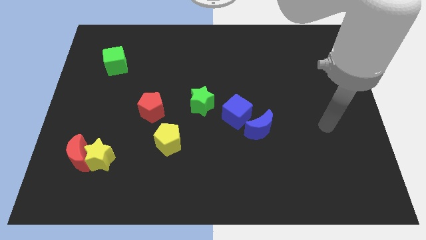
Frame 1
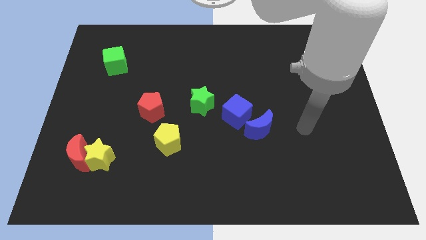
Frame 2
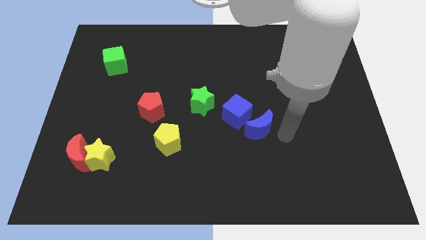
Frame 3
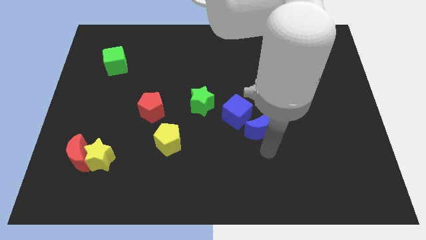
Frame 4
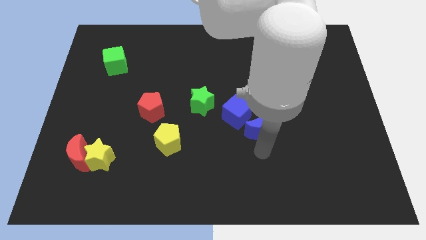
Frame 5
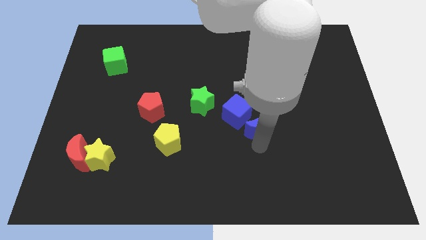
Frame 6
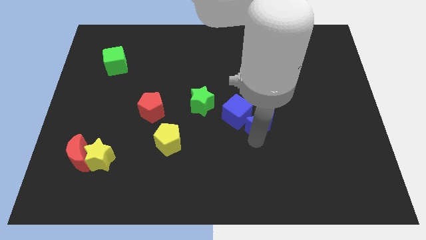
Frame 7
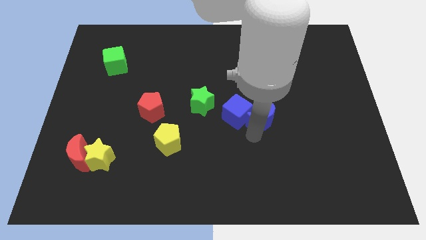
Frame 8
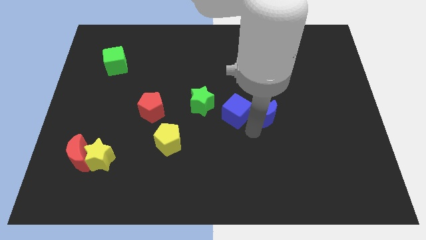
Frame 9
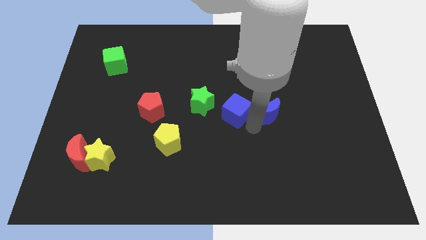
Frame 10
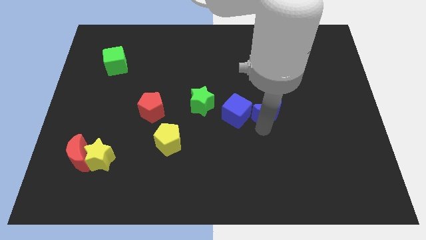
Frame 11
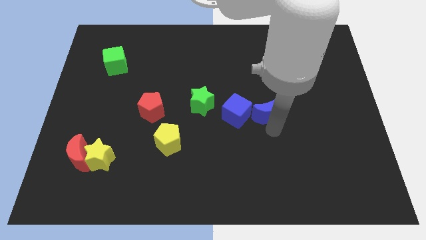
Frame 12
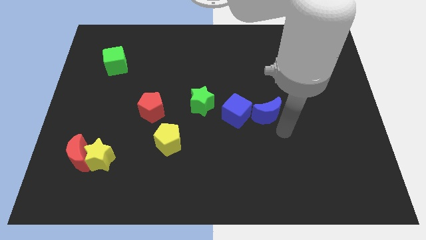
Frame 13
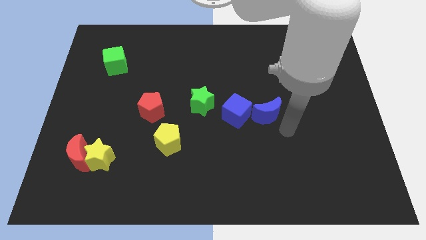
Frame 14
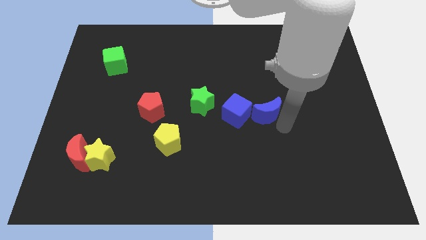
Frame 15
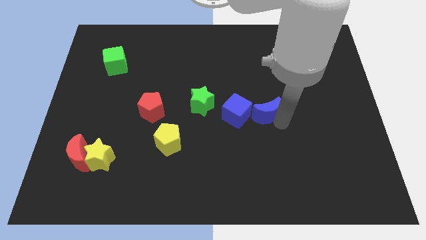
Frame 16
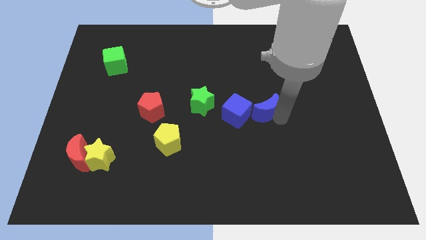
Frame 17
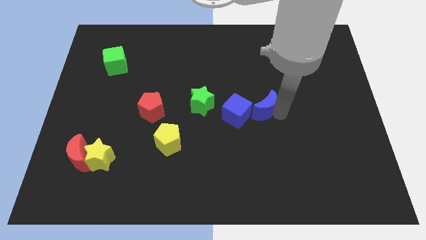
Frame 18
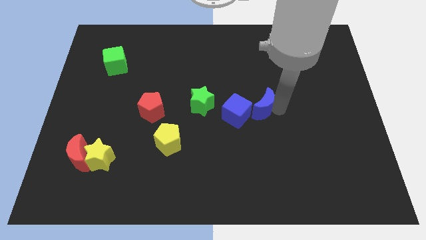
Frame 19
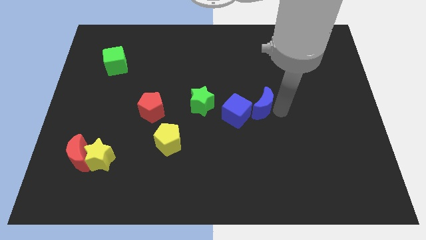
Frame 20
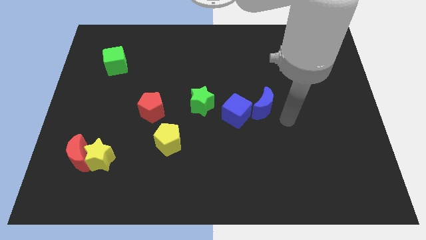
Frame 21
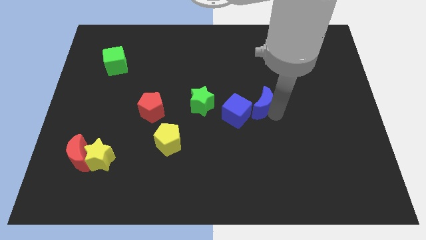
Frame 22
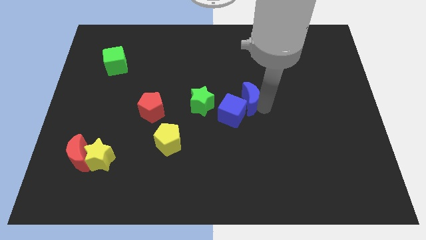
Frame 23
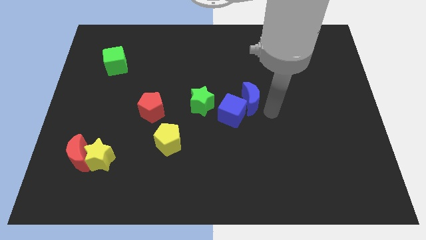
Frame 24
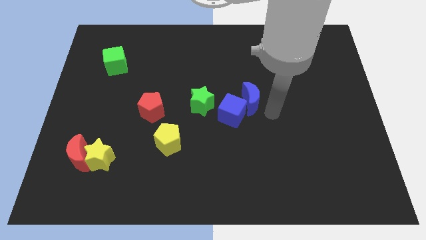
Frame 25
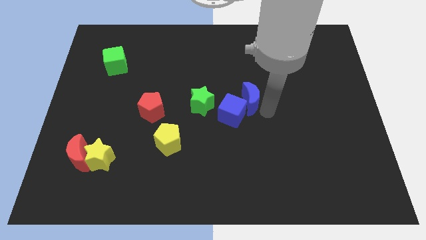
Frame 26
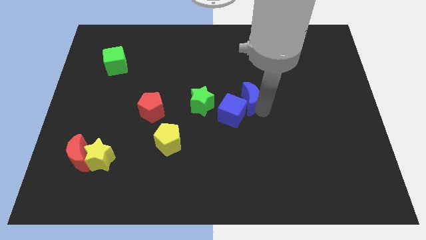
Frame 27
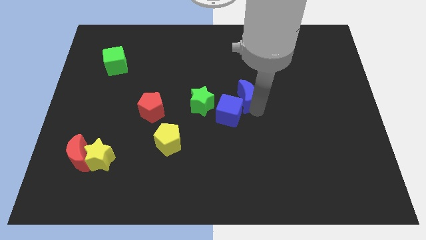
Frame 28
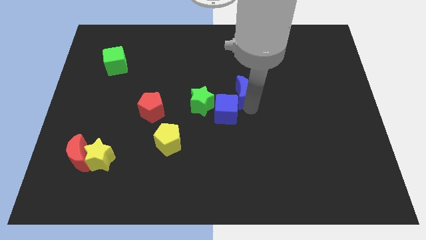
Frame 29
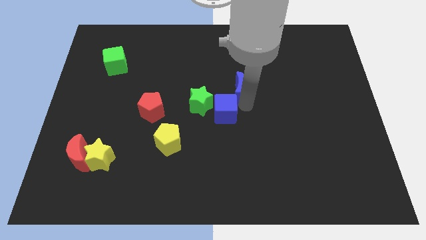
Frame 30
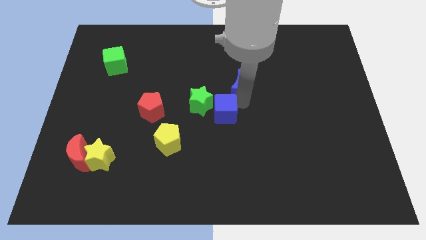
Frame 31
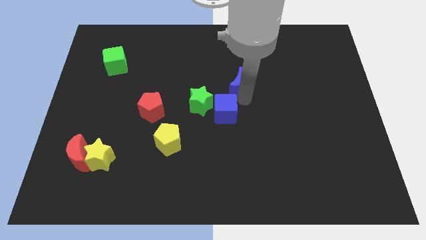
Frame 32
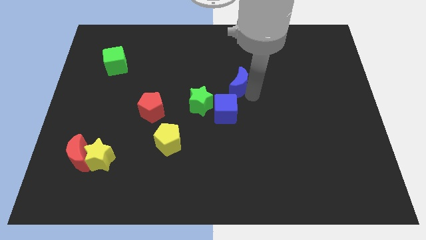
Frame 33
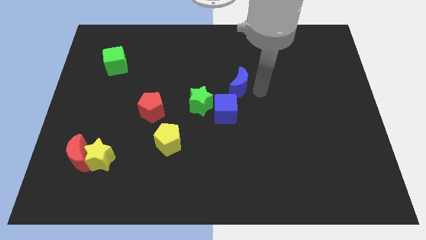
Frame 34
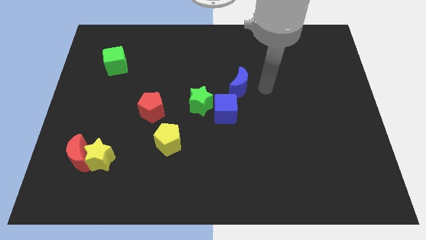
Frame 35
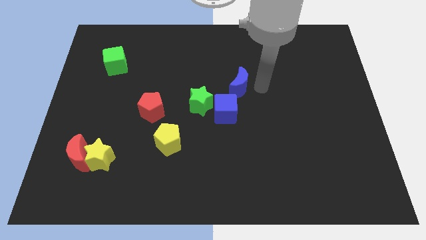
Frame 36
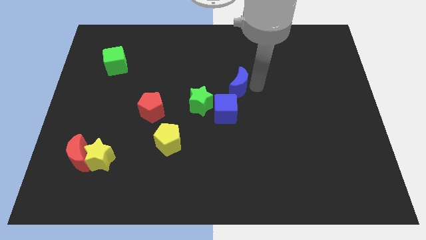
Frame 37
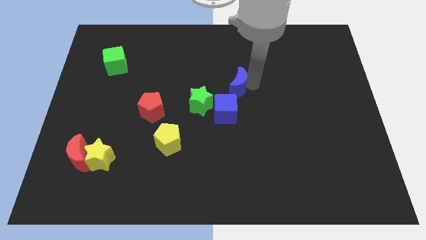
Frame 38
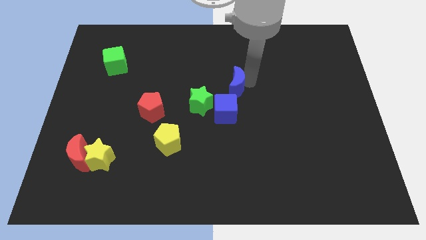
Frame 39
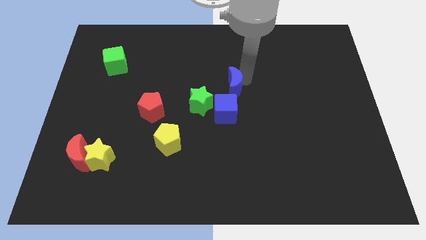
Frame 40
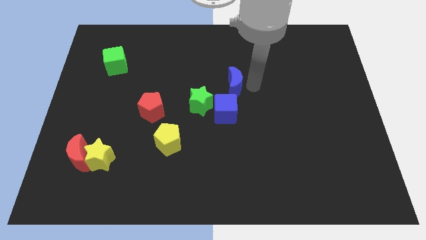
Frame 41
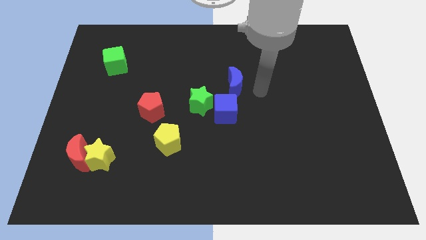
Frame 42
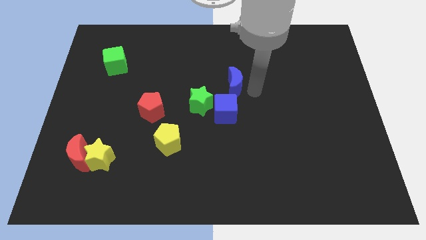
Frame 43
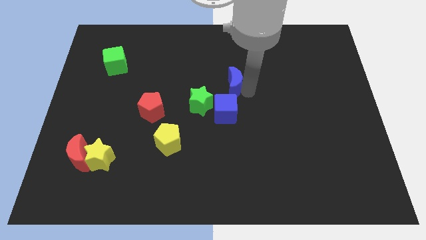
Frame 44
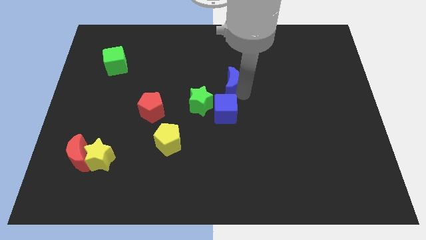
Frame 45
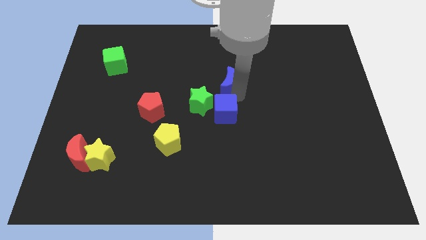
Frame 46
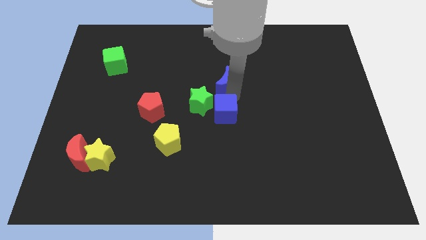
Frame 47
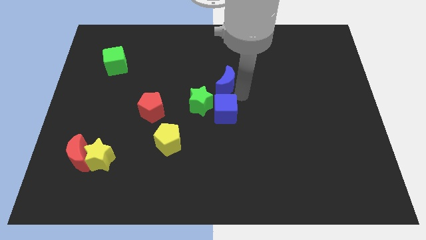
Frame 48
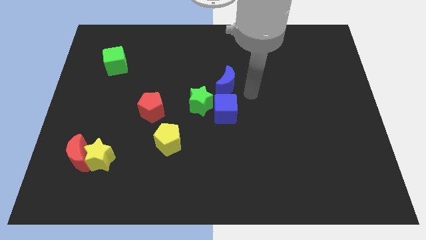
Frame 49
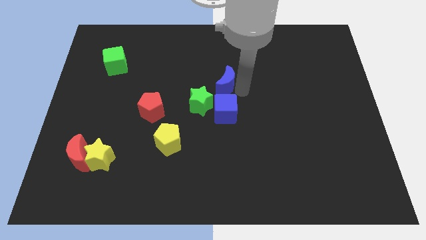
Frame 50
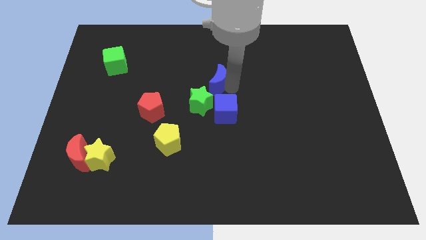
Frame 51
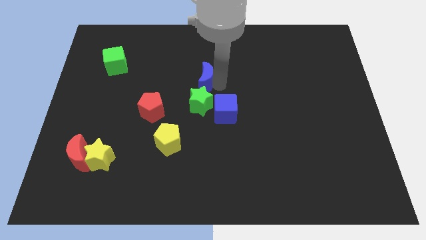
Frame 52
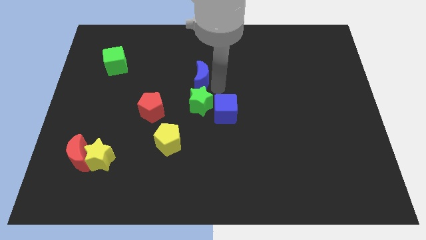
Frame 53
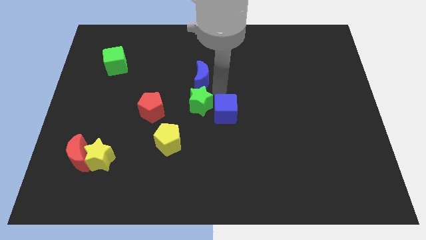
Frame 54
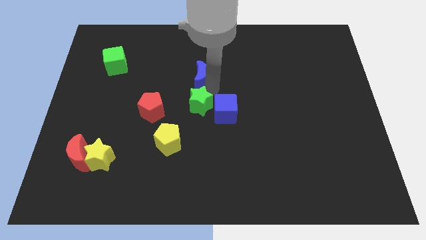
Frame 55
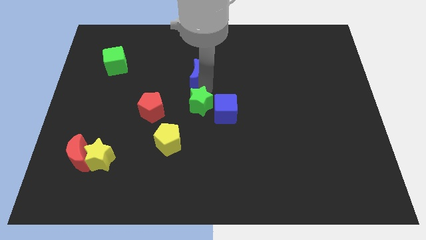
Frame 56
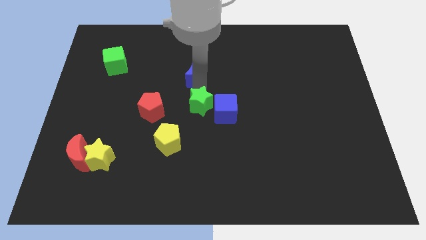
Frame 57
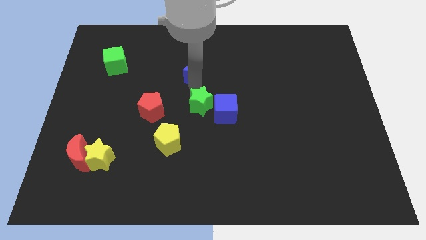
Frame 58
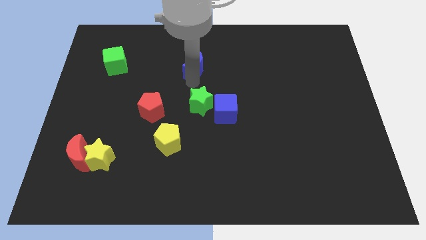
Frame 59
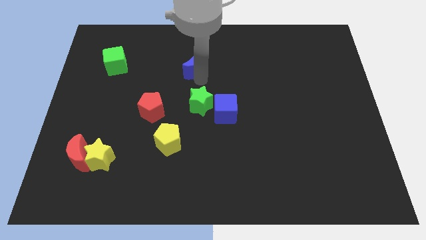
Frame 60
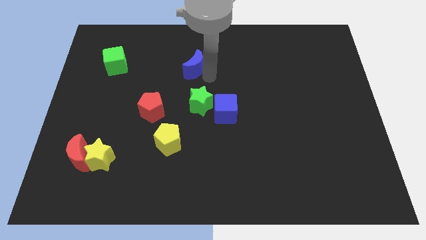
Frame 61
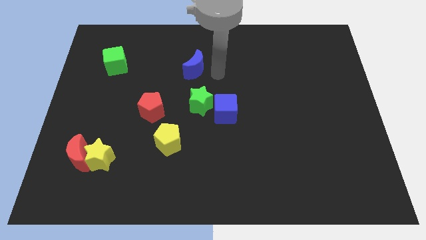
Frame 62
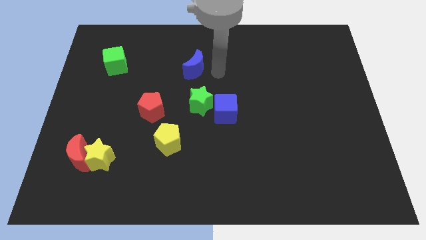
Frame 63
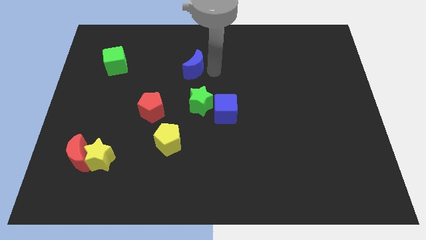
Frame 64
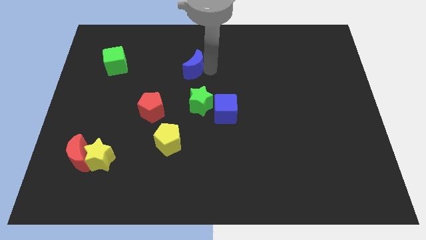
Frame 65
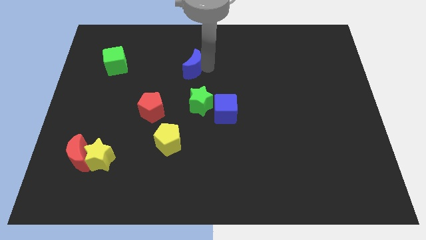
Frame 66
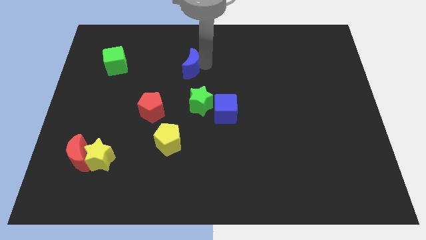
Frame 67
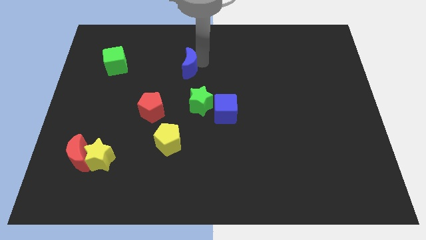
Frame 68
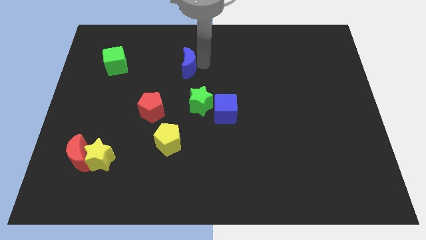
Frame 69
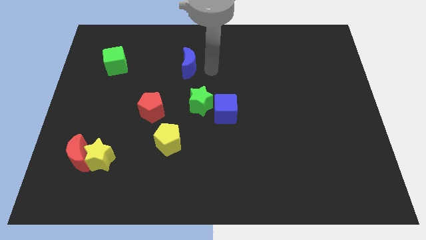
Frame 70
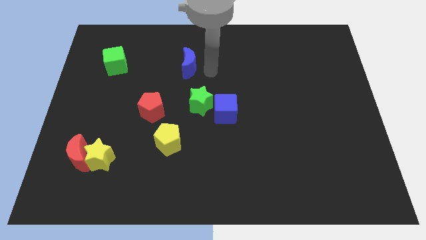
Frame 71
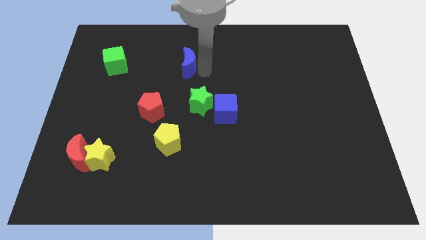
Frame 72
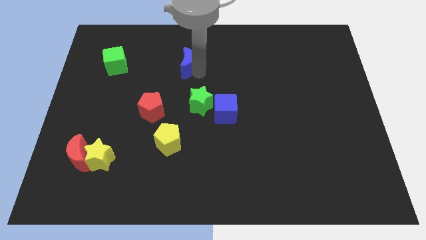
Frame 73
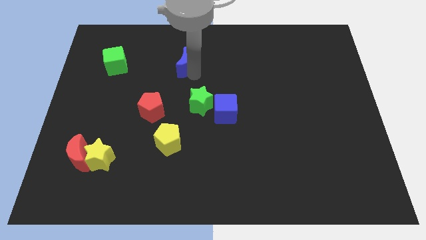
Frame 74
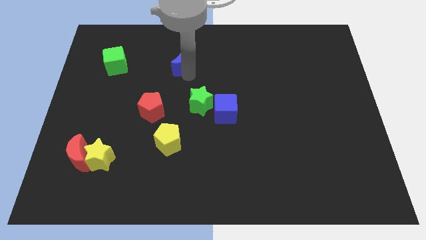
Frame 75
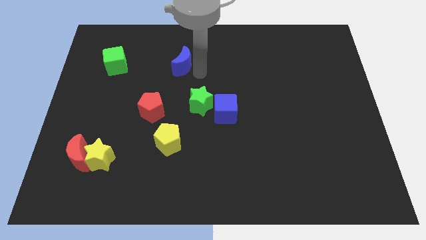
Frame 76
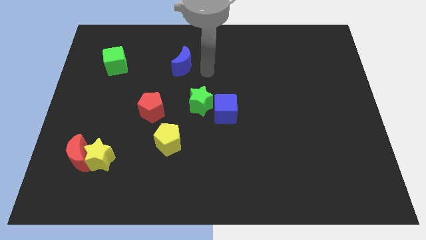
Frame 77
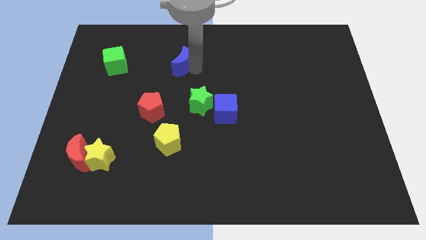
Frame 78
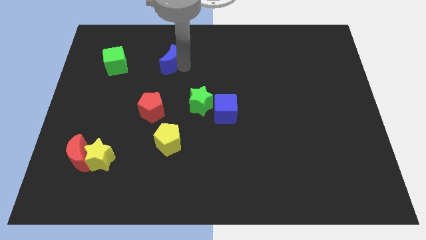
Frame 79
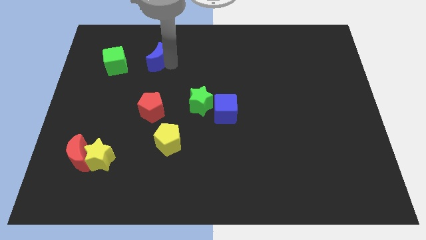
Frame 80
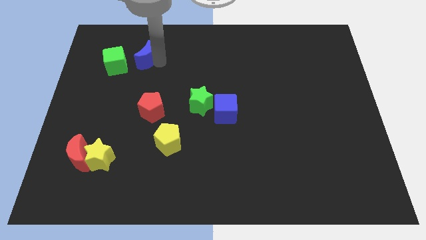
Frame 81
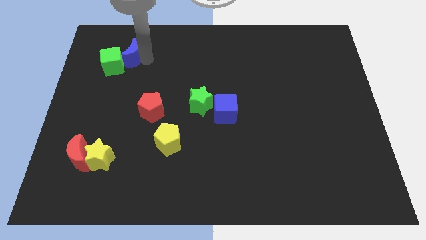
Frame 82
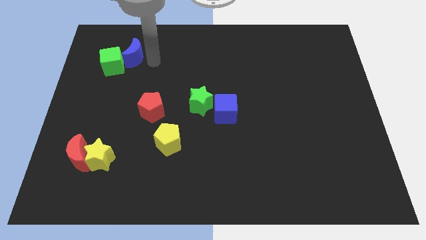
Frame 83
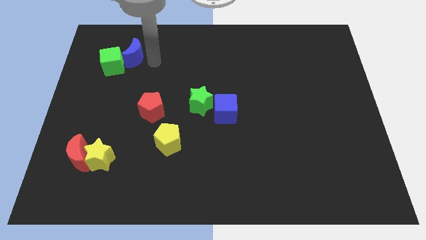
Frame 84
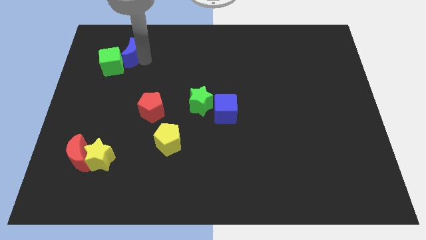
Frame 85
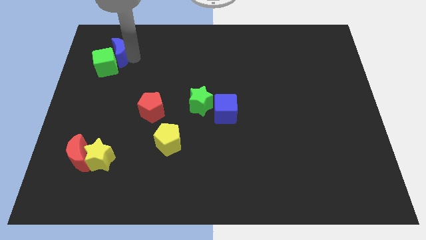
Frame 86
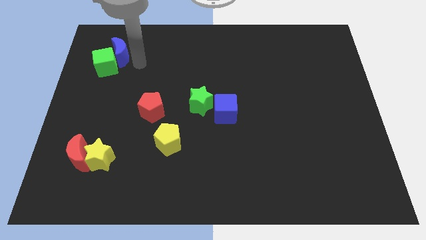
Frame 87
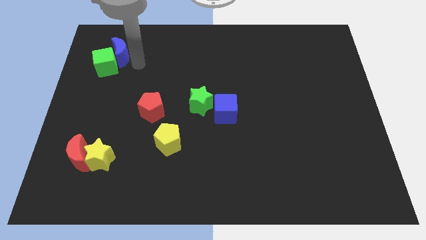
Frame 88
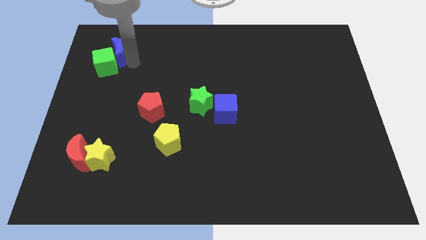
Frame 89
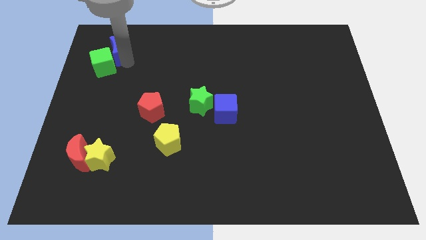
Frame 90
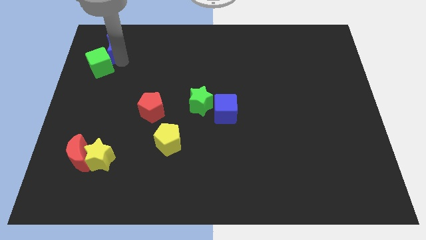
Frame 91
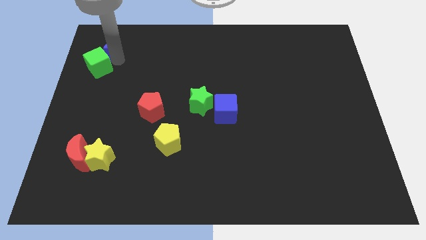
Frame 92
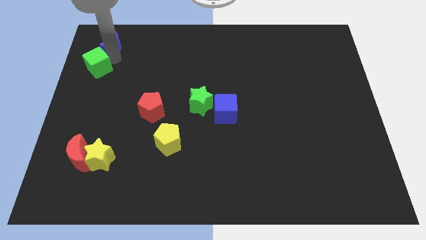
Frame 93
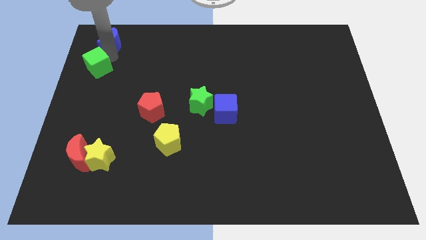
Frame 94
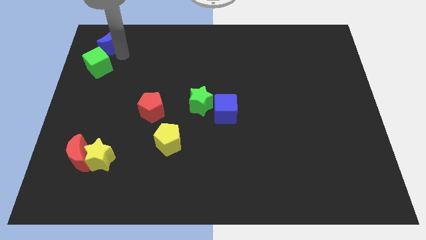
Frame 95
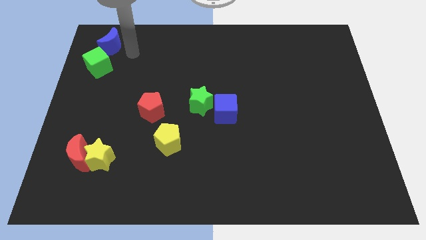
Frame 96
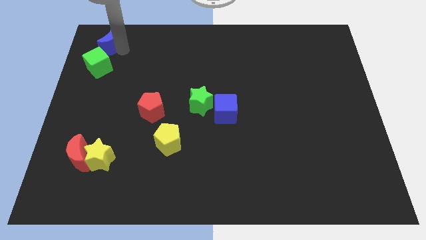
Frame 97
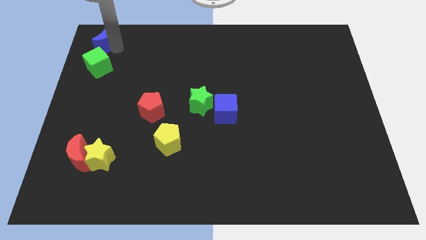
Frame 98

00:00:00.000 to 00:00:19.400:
slide the blue moon to the top left corner
